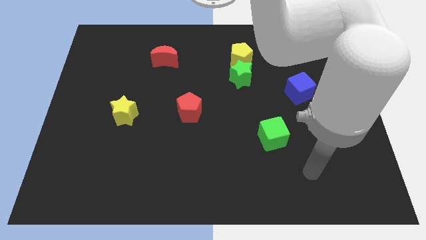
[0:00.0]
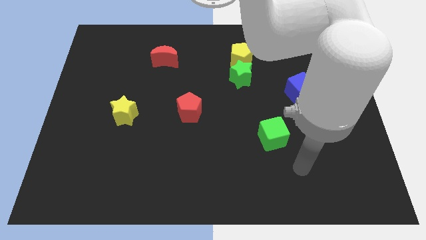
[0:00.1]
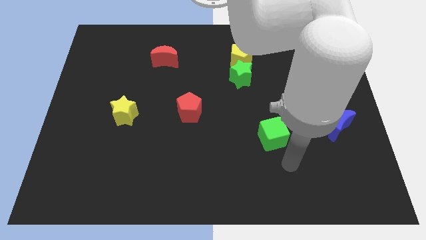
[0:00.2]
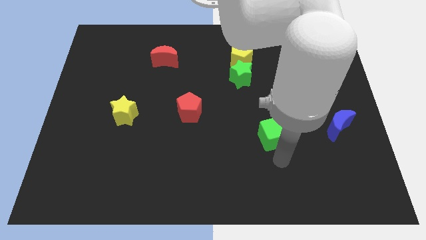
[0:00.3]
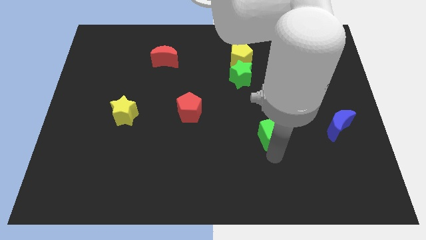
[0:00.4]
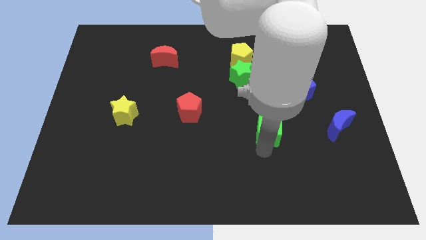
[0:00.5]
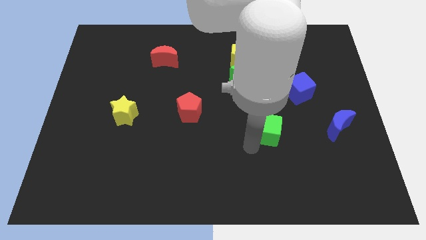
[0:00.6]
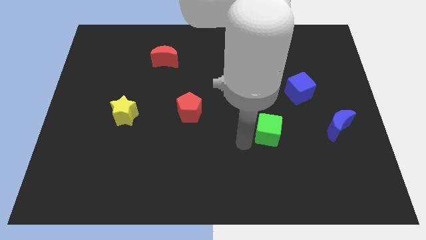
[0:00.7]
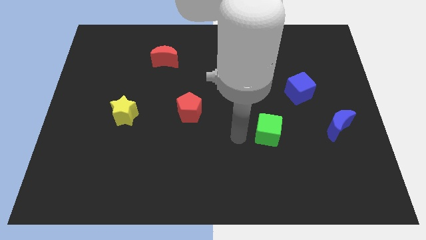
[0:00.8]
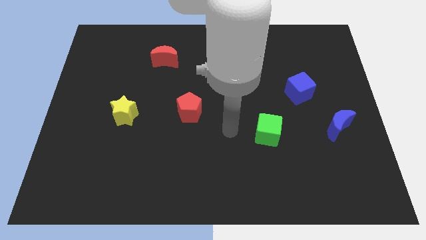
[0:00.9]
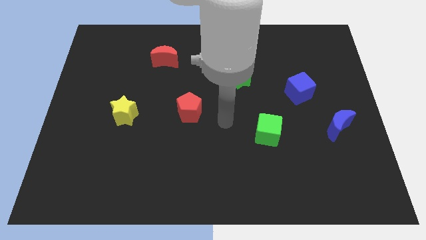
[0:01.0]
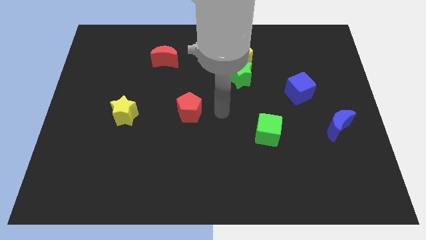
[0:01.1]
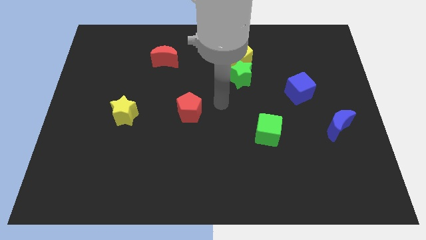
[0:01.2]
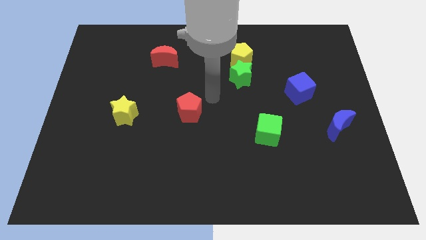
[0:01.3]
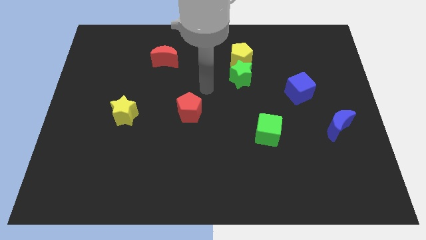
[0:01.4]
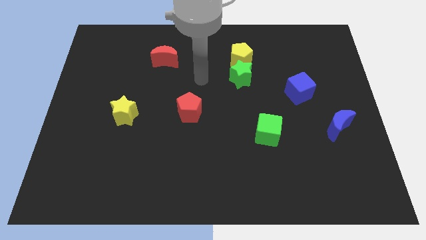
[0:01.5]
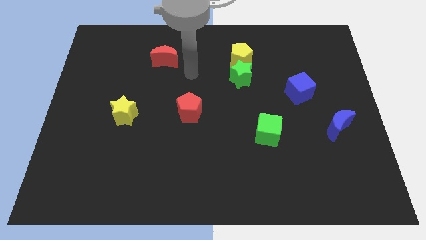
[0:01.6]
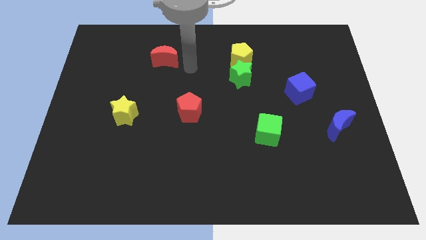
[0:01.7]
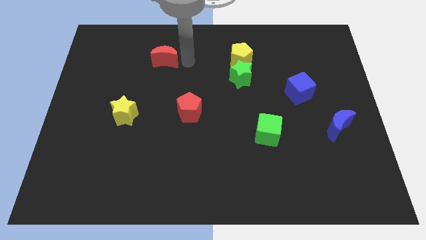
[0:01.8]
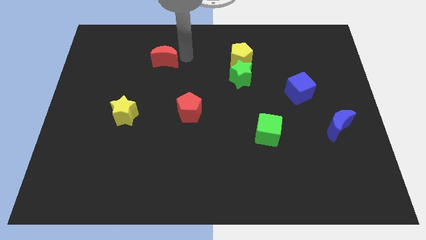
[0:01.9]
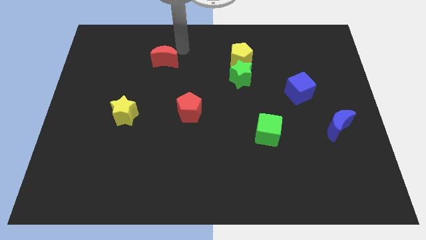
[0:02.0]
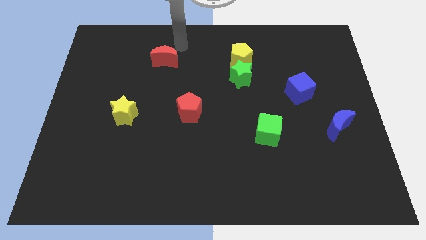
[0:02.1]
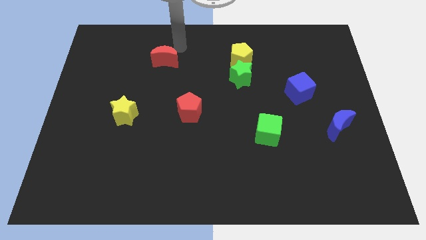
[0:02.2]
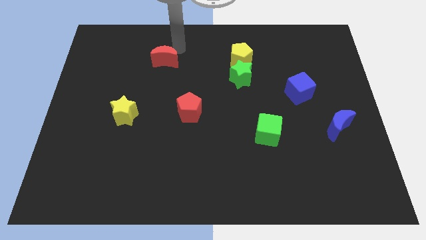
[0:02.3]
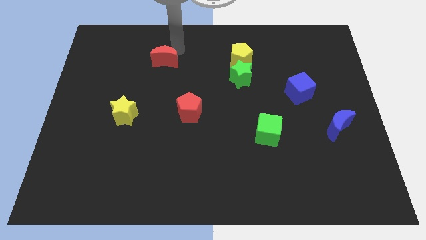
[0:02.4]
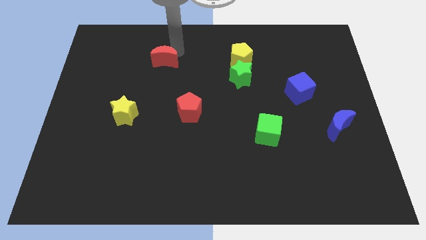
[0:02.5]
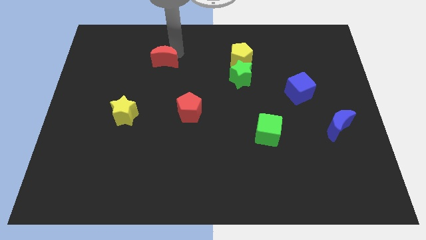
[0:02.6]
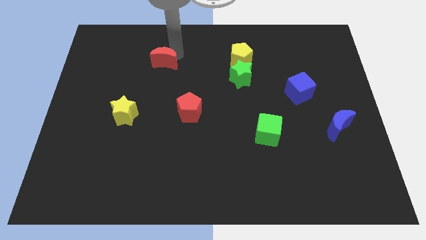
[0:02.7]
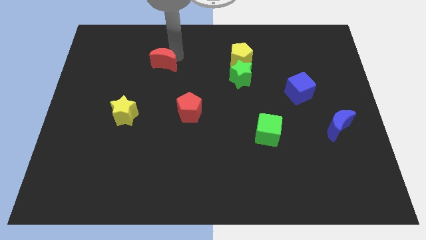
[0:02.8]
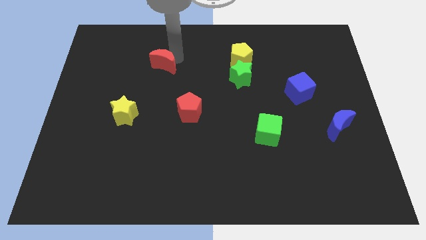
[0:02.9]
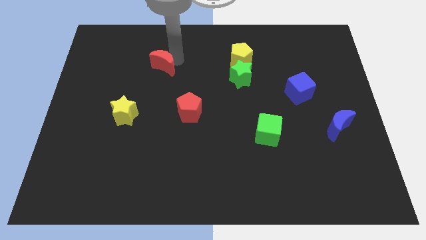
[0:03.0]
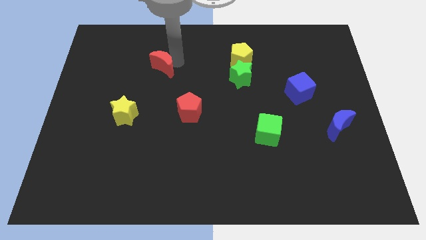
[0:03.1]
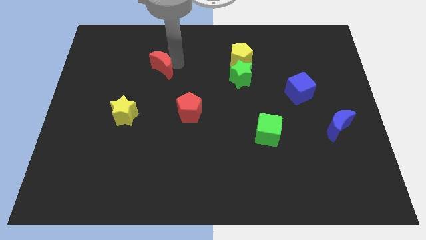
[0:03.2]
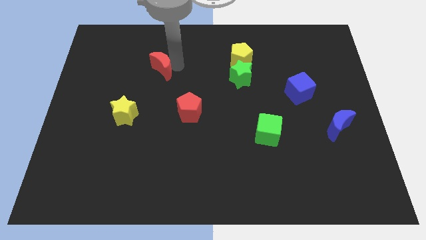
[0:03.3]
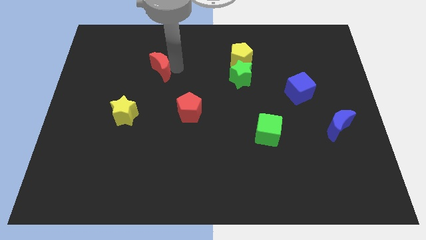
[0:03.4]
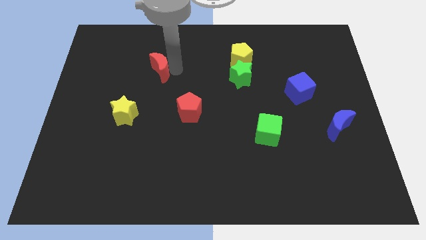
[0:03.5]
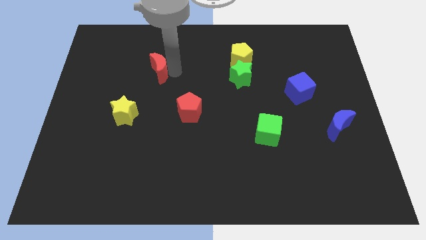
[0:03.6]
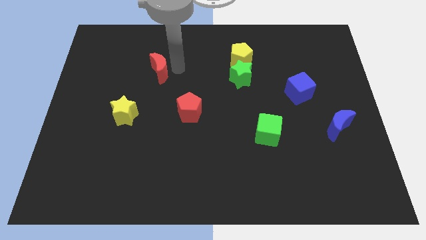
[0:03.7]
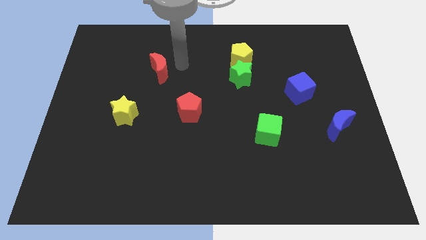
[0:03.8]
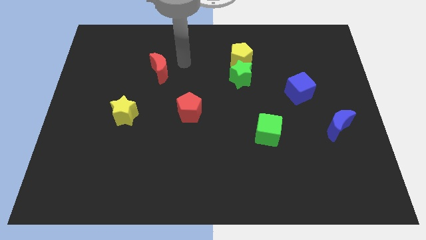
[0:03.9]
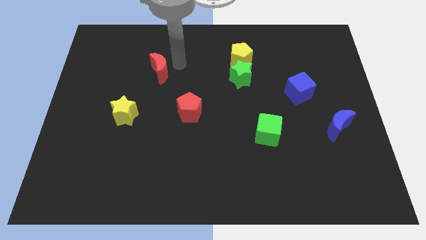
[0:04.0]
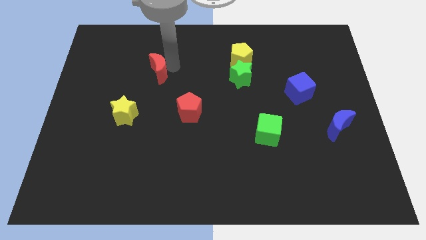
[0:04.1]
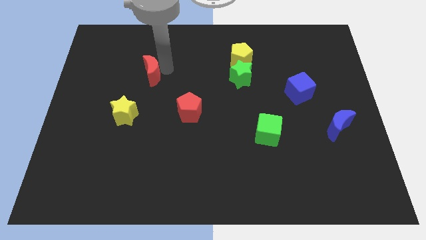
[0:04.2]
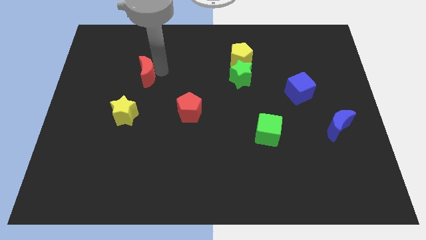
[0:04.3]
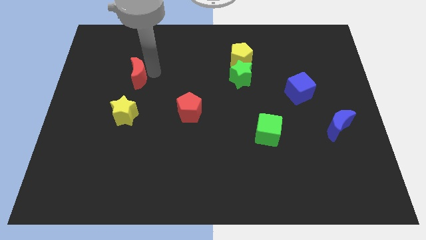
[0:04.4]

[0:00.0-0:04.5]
push the red moon diagonally downwards and to the left a little

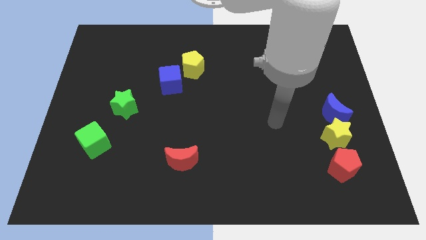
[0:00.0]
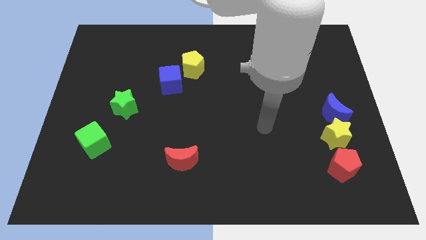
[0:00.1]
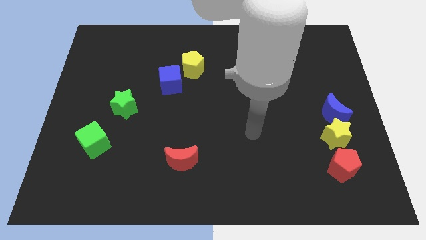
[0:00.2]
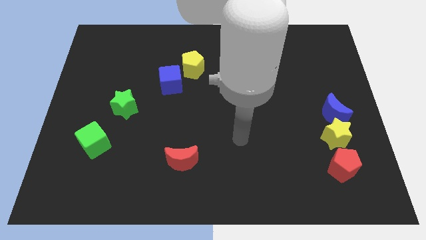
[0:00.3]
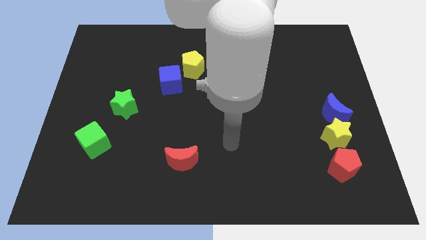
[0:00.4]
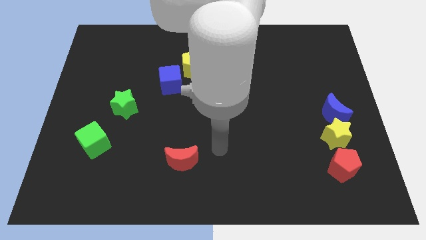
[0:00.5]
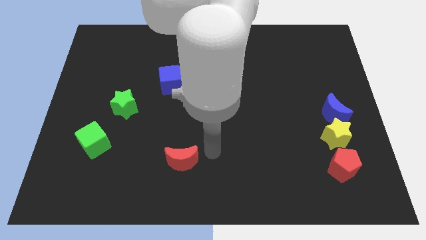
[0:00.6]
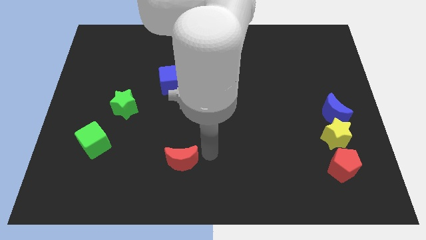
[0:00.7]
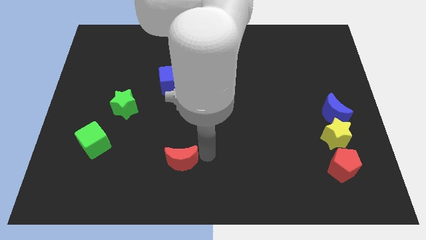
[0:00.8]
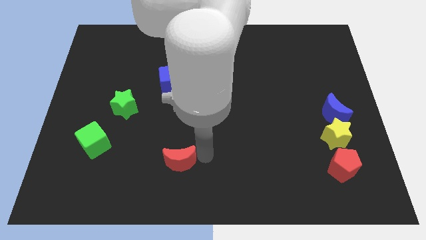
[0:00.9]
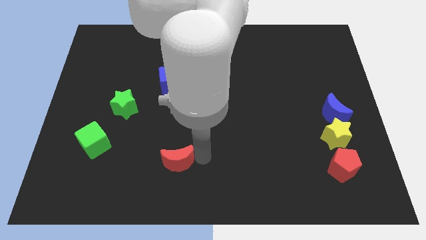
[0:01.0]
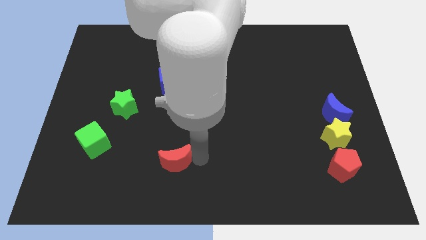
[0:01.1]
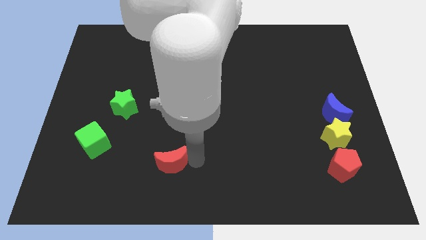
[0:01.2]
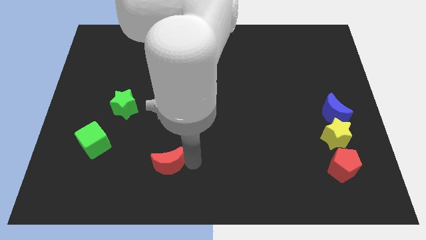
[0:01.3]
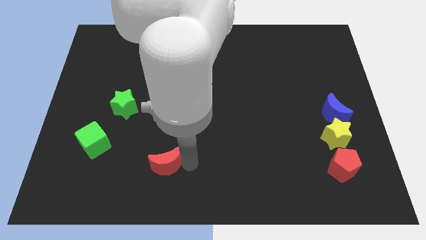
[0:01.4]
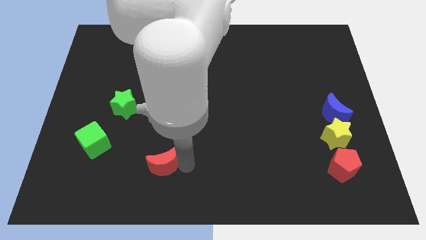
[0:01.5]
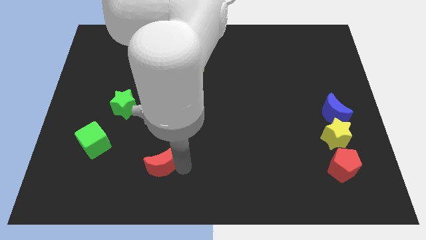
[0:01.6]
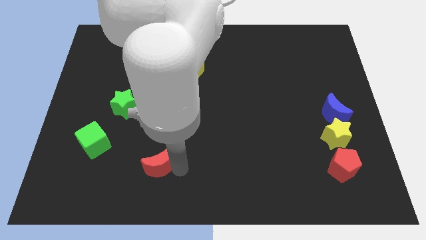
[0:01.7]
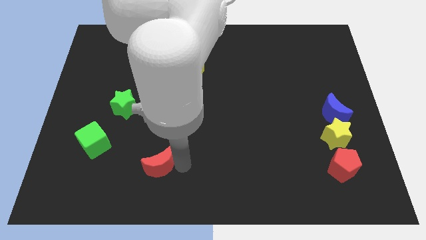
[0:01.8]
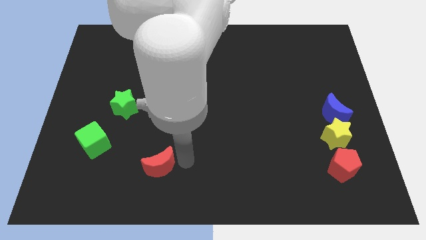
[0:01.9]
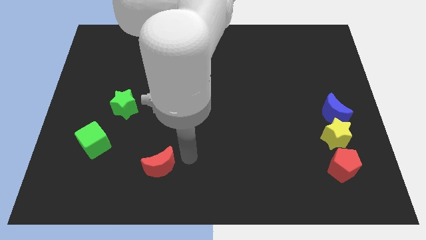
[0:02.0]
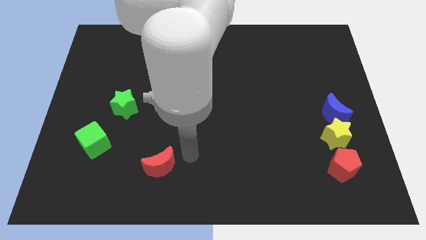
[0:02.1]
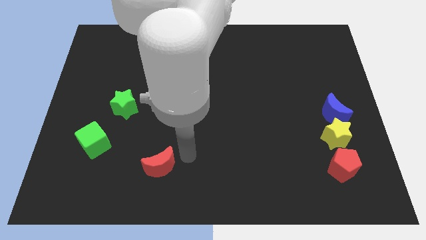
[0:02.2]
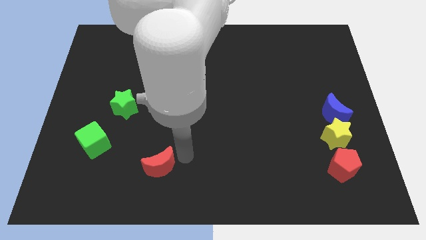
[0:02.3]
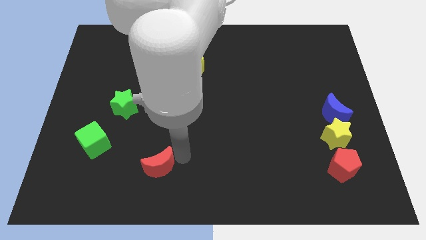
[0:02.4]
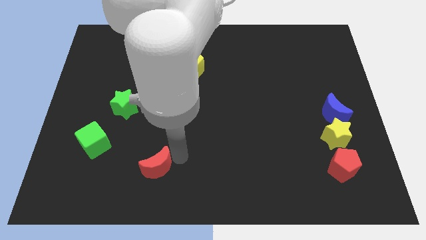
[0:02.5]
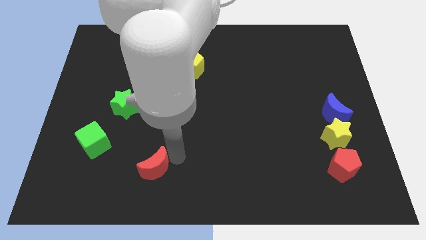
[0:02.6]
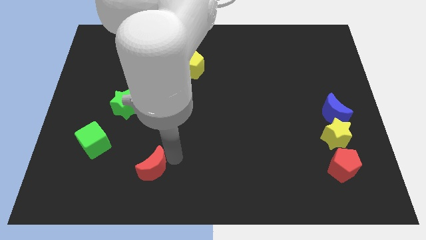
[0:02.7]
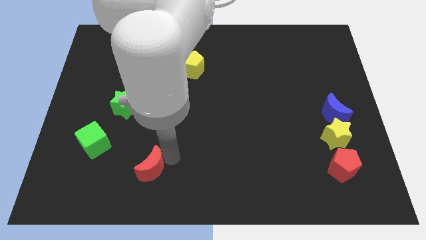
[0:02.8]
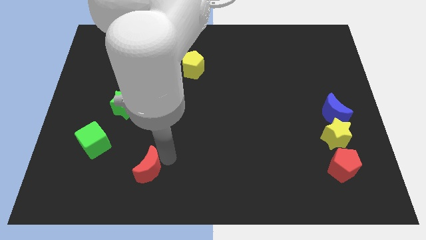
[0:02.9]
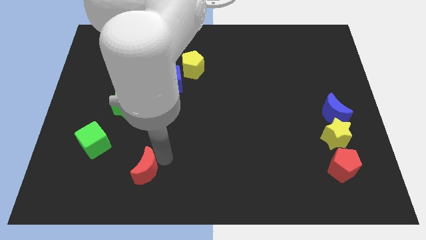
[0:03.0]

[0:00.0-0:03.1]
slightly move the red moon left

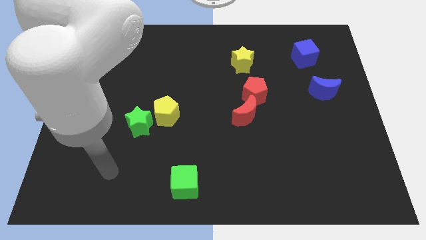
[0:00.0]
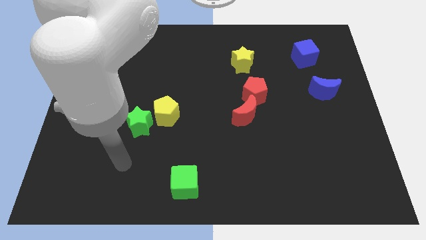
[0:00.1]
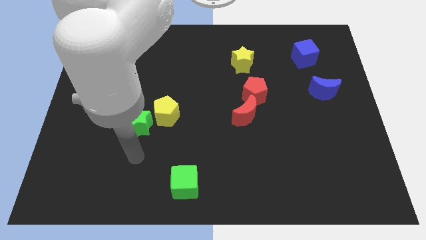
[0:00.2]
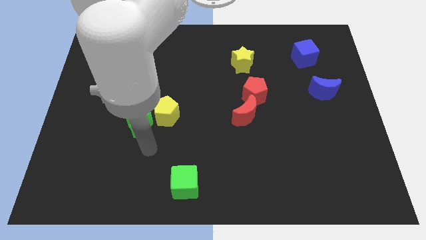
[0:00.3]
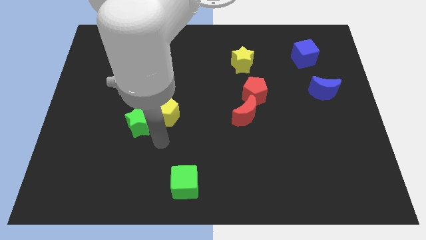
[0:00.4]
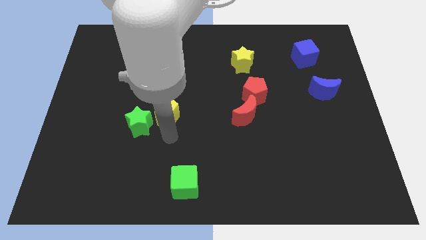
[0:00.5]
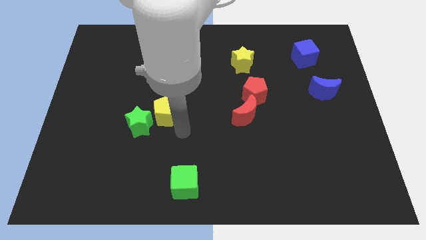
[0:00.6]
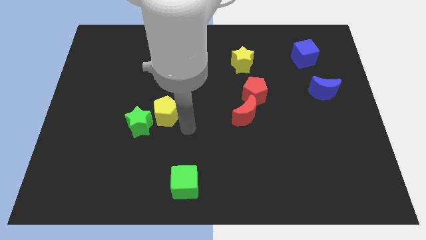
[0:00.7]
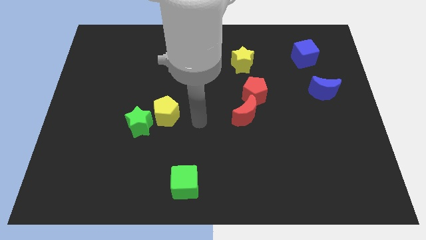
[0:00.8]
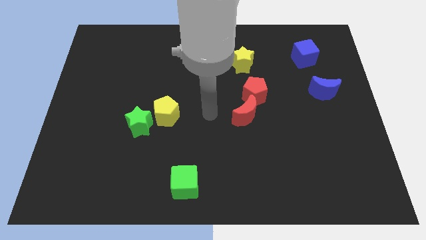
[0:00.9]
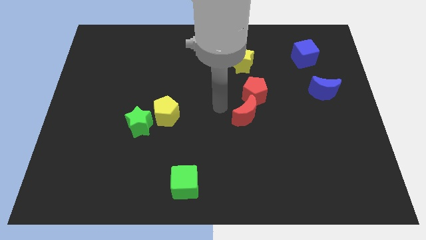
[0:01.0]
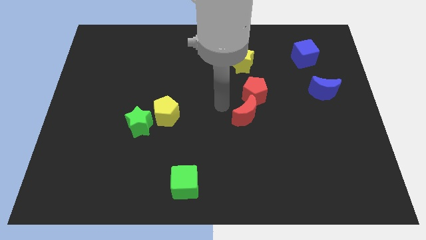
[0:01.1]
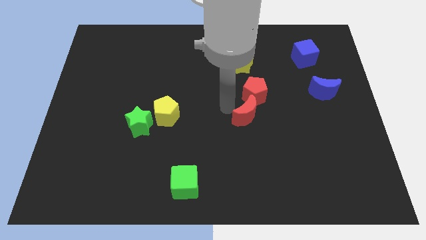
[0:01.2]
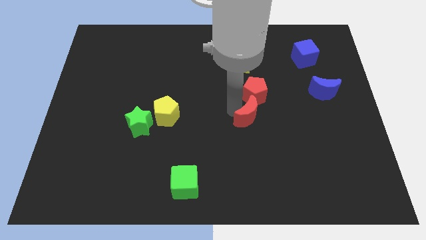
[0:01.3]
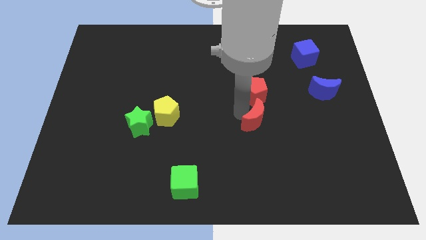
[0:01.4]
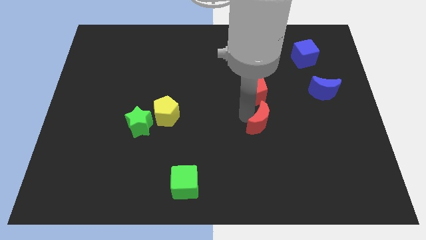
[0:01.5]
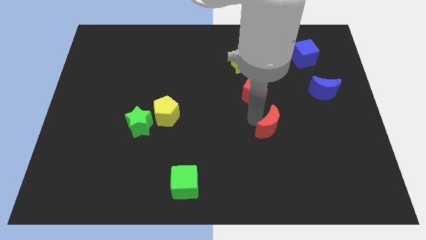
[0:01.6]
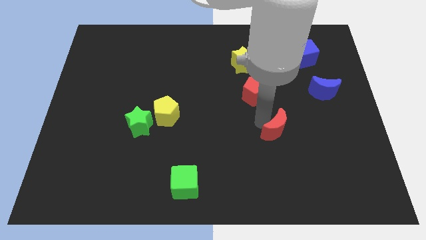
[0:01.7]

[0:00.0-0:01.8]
move the red moon slightly diagonally downwards and right
